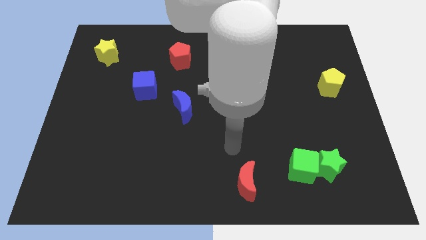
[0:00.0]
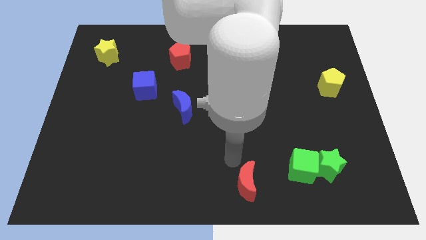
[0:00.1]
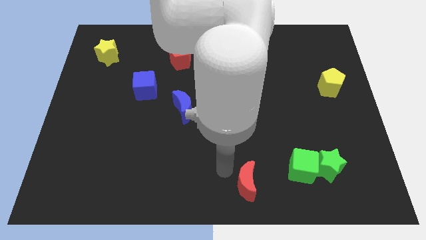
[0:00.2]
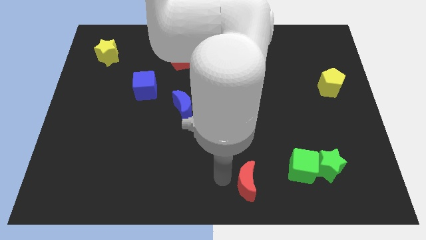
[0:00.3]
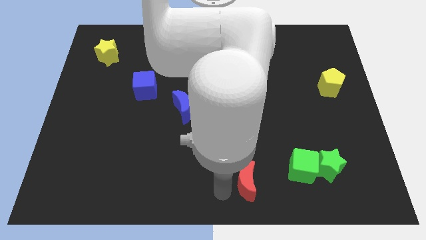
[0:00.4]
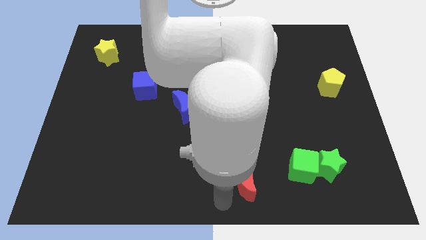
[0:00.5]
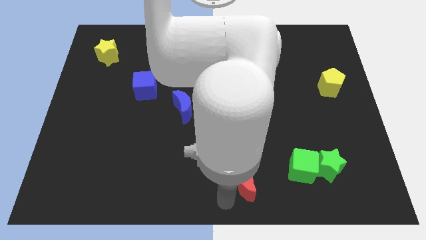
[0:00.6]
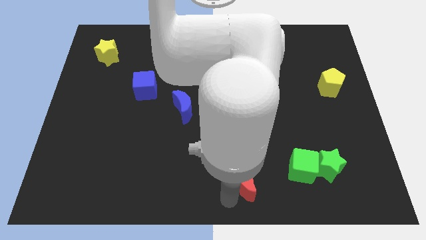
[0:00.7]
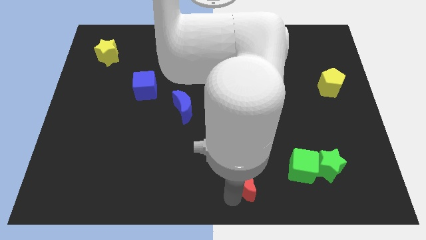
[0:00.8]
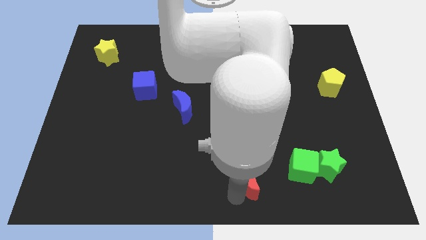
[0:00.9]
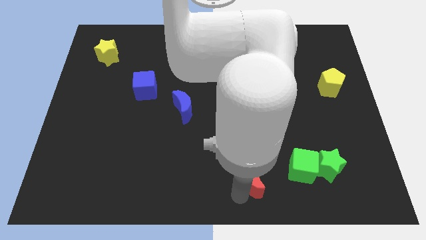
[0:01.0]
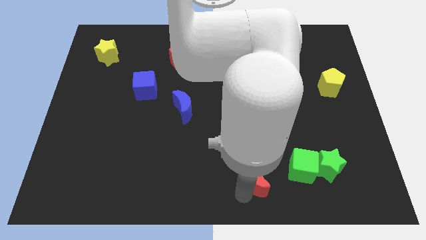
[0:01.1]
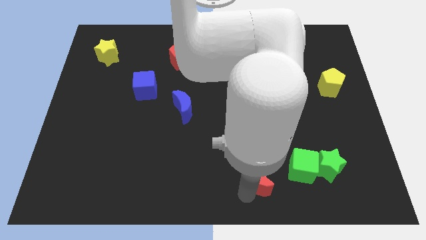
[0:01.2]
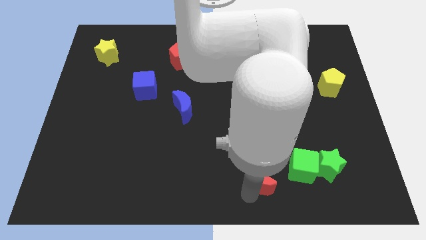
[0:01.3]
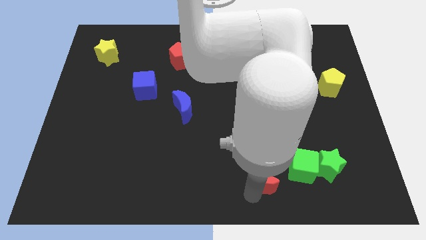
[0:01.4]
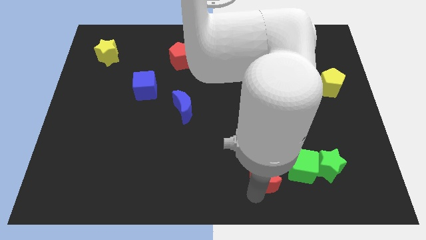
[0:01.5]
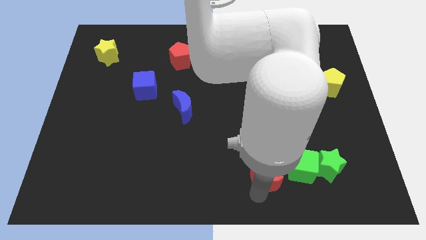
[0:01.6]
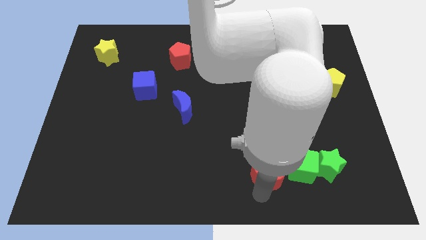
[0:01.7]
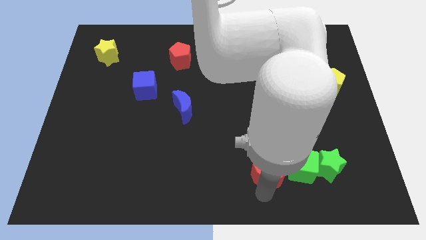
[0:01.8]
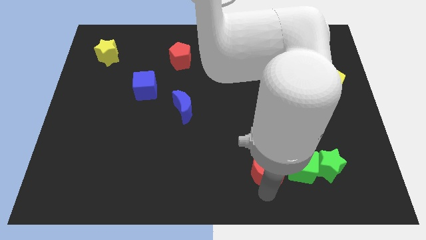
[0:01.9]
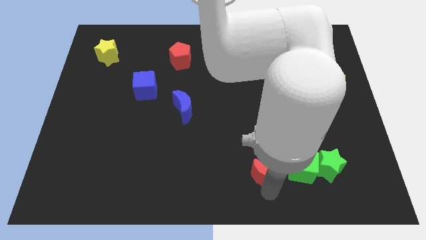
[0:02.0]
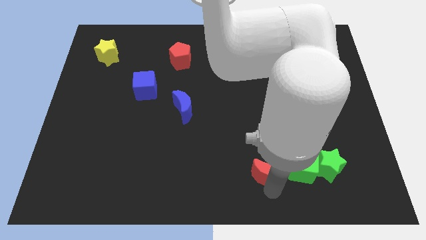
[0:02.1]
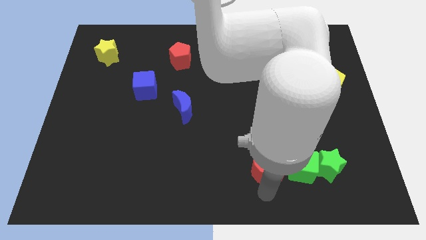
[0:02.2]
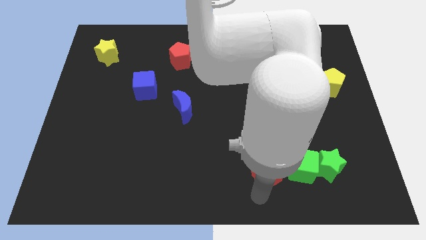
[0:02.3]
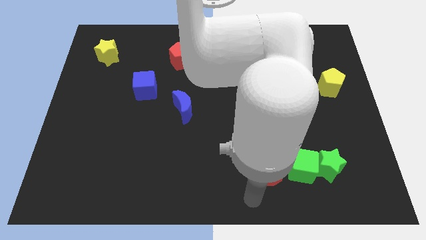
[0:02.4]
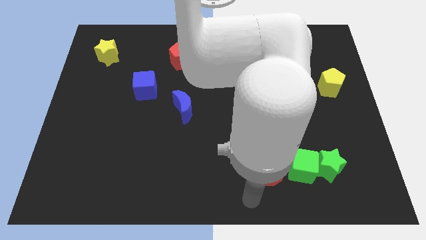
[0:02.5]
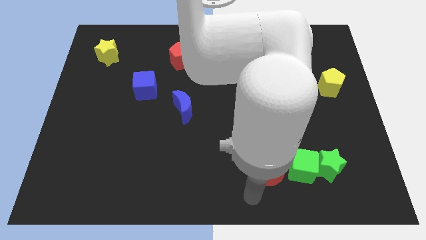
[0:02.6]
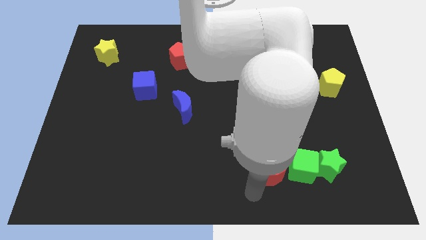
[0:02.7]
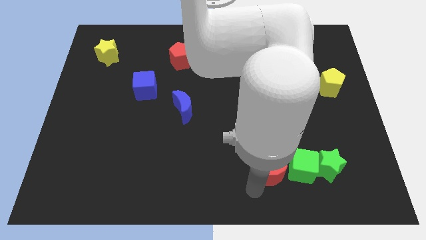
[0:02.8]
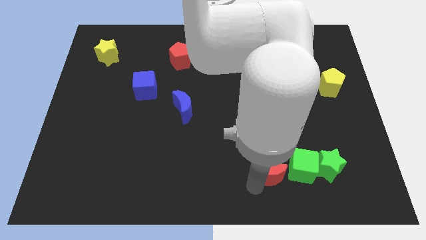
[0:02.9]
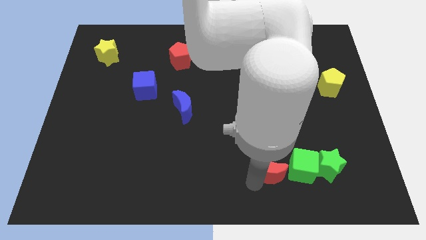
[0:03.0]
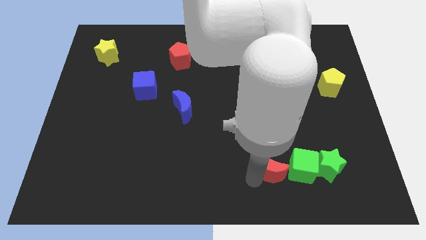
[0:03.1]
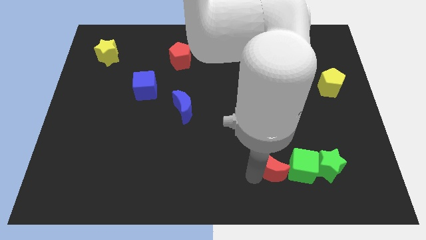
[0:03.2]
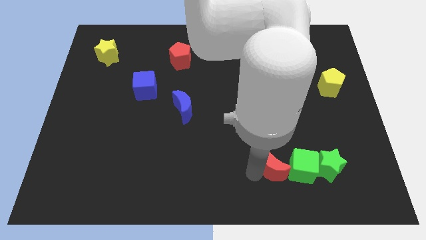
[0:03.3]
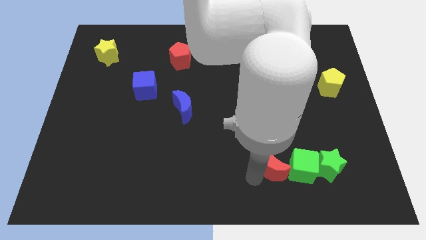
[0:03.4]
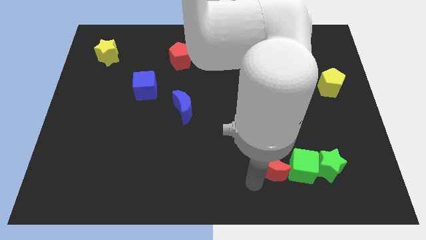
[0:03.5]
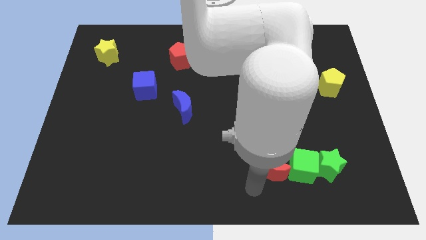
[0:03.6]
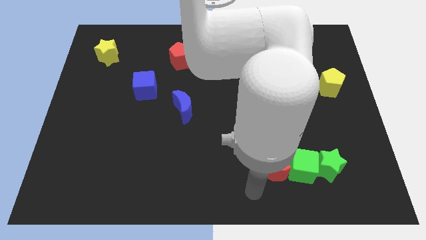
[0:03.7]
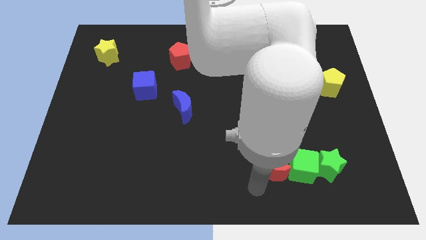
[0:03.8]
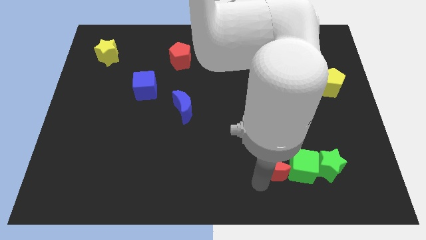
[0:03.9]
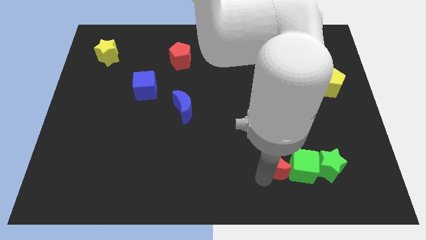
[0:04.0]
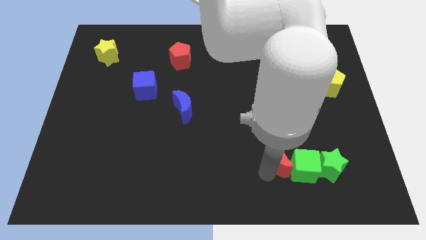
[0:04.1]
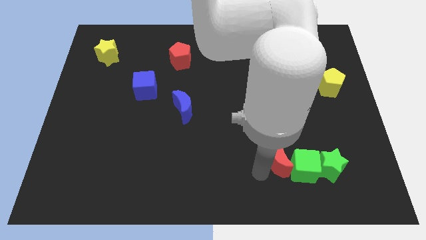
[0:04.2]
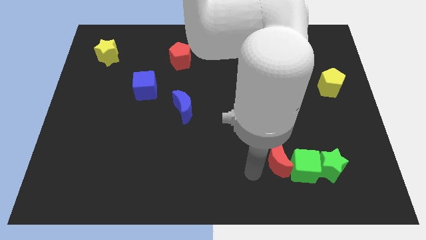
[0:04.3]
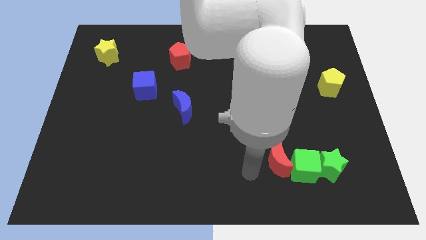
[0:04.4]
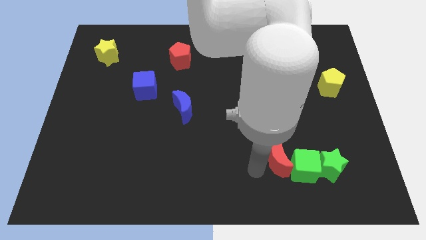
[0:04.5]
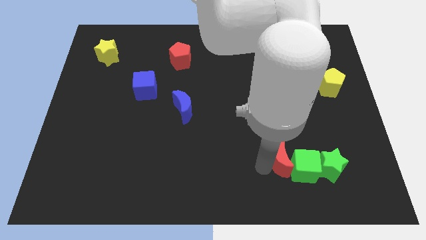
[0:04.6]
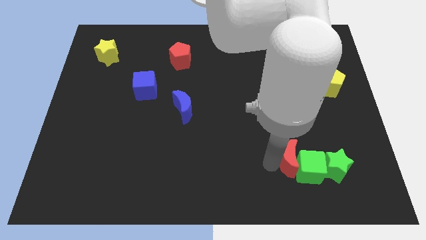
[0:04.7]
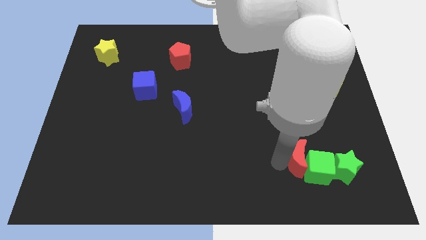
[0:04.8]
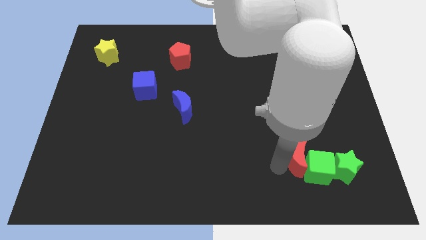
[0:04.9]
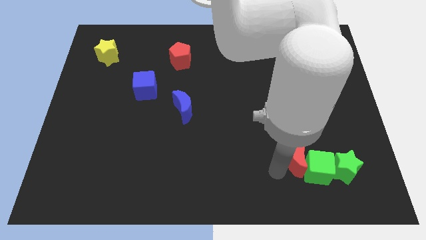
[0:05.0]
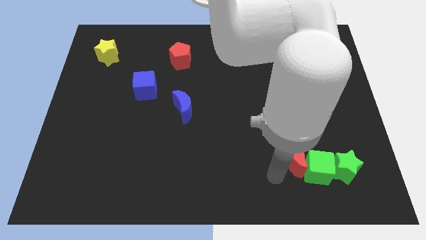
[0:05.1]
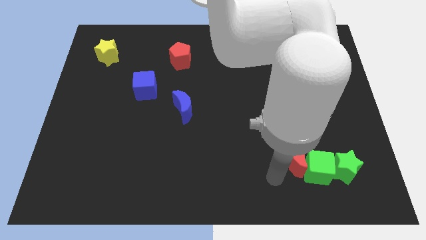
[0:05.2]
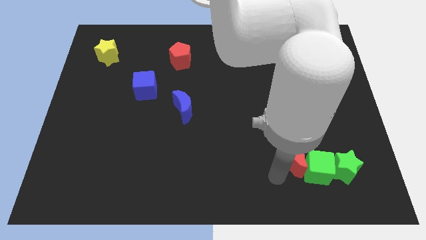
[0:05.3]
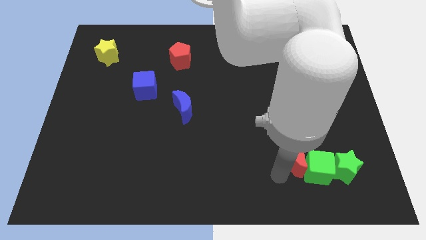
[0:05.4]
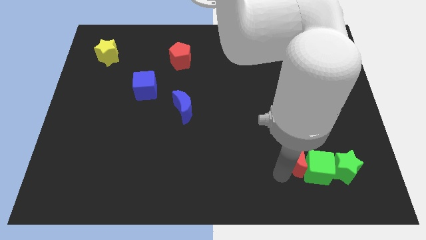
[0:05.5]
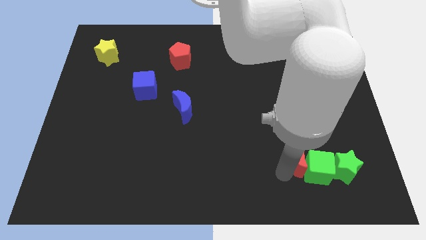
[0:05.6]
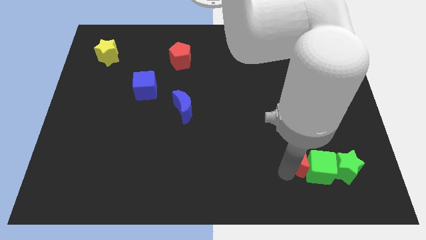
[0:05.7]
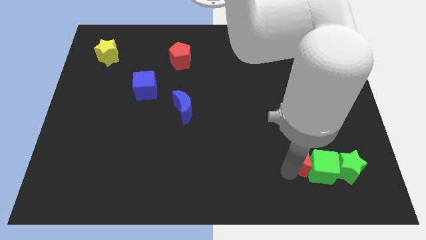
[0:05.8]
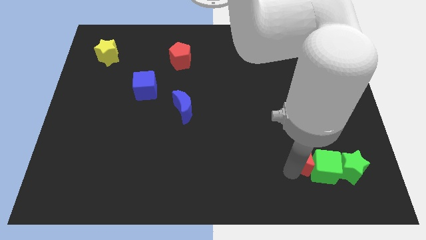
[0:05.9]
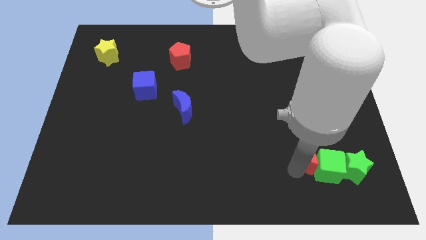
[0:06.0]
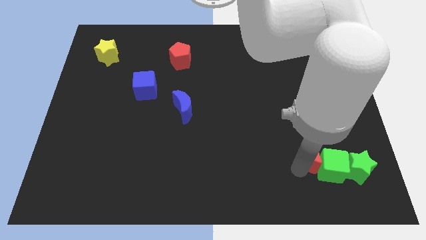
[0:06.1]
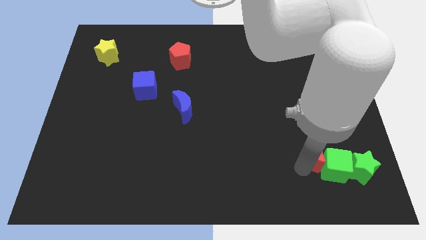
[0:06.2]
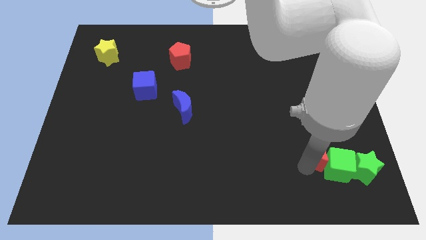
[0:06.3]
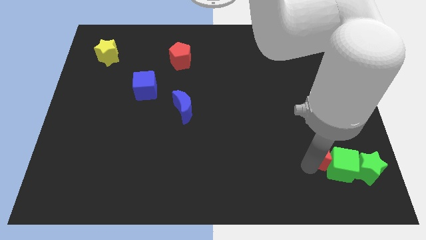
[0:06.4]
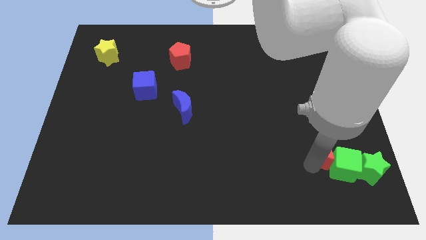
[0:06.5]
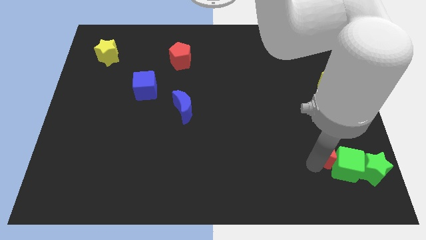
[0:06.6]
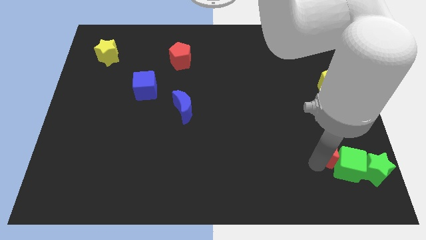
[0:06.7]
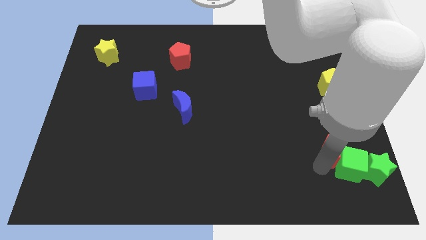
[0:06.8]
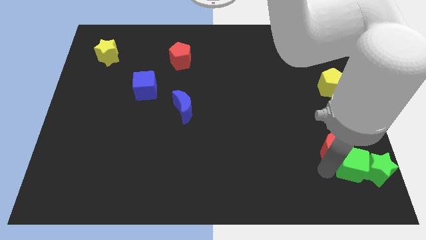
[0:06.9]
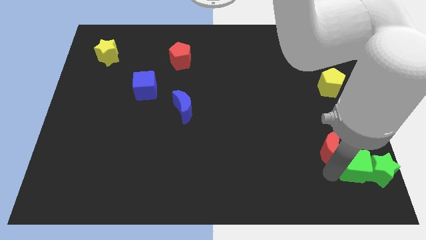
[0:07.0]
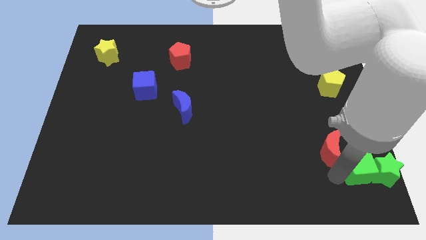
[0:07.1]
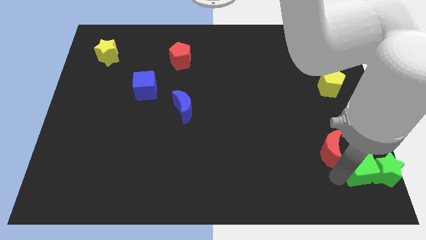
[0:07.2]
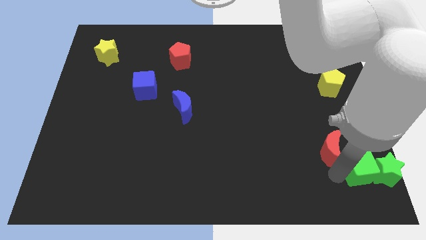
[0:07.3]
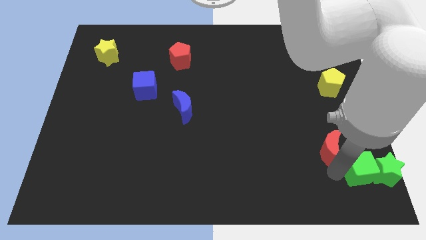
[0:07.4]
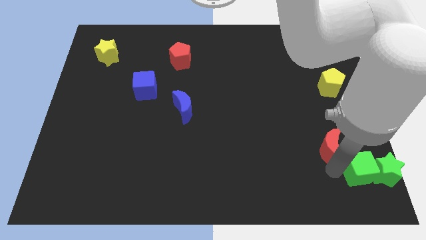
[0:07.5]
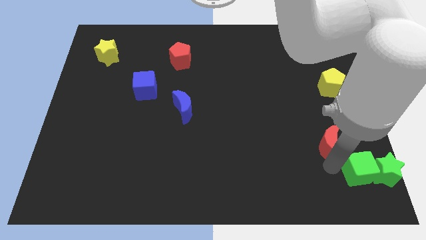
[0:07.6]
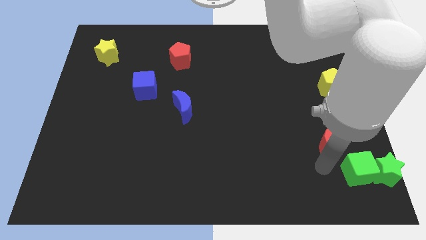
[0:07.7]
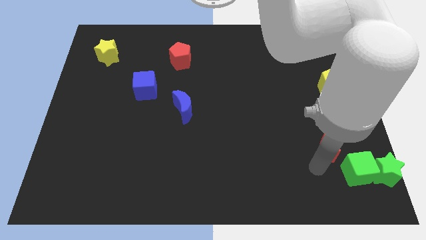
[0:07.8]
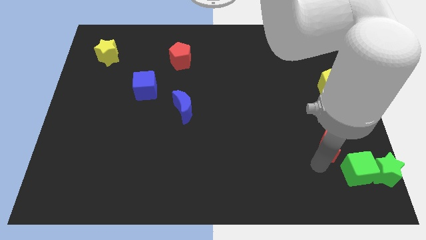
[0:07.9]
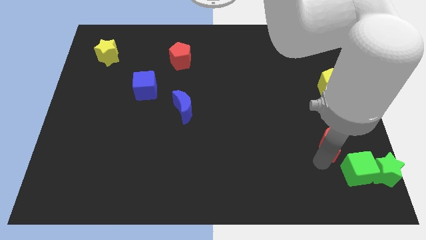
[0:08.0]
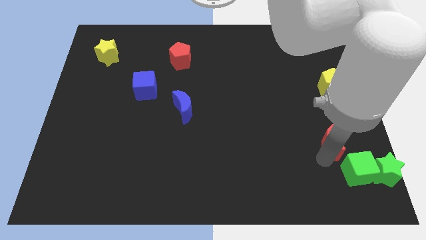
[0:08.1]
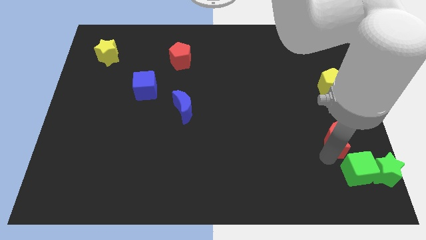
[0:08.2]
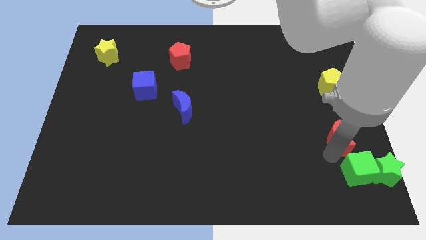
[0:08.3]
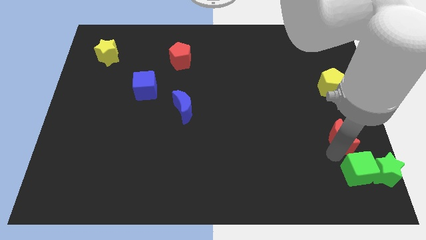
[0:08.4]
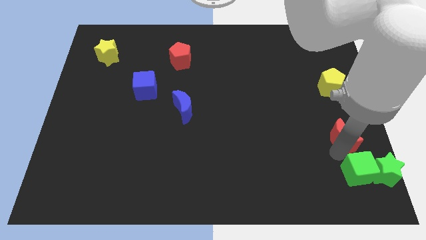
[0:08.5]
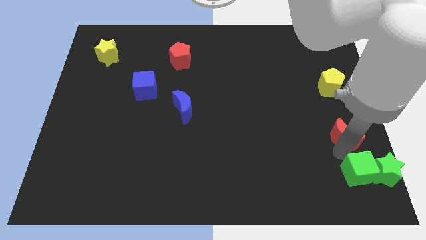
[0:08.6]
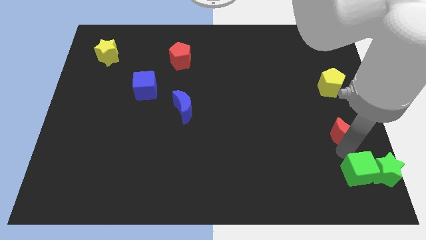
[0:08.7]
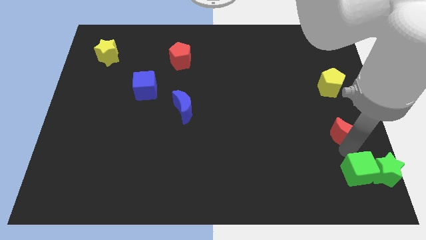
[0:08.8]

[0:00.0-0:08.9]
slide the red moon to the right side
